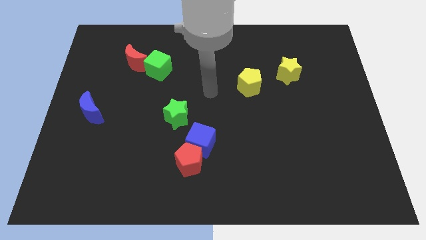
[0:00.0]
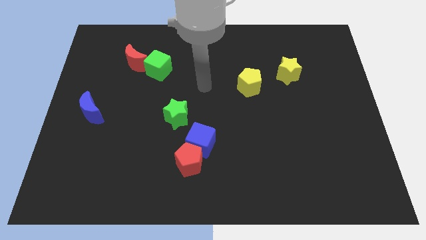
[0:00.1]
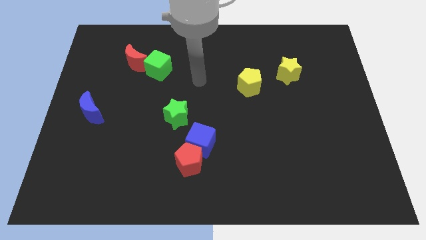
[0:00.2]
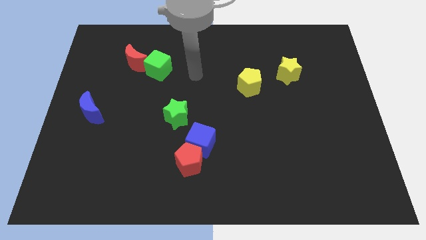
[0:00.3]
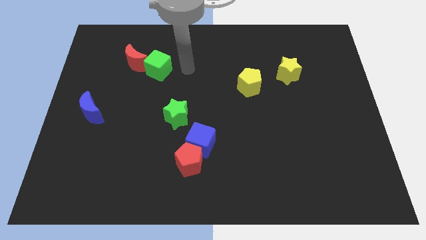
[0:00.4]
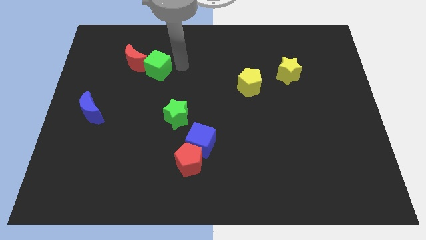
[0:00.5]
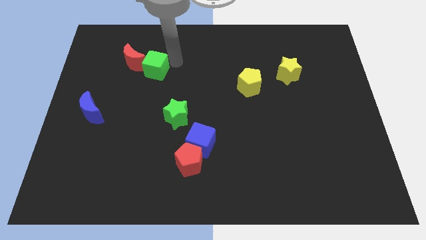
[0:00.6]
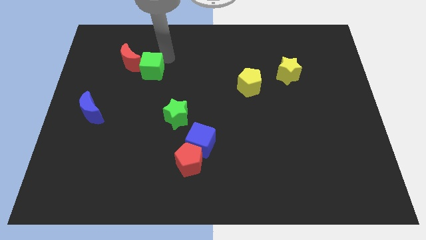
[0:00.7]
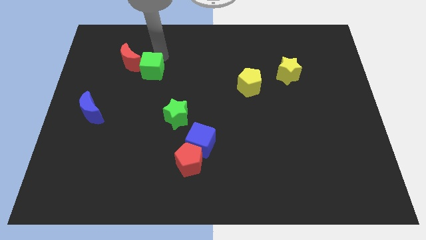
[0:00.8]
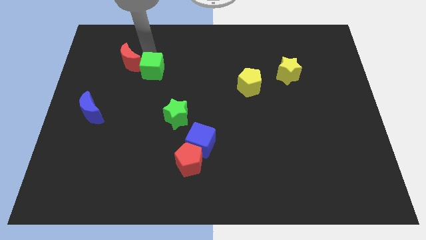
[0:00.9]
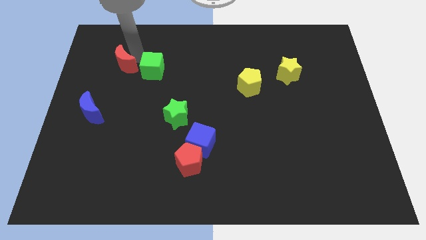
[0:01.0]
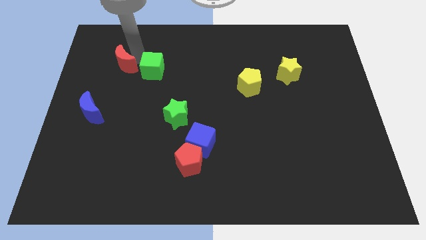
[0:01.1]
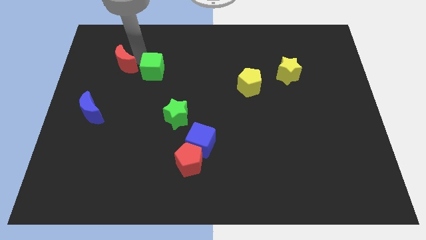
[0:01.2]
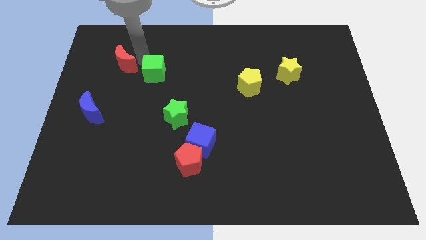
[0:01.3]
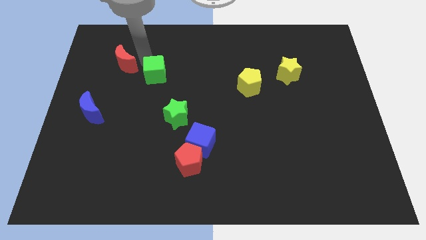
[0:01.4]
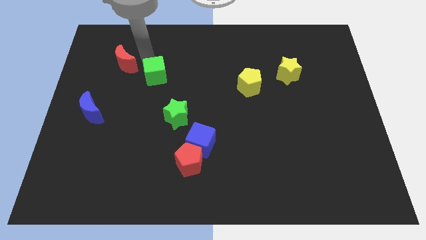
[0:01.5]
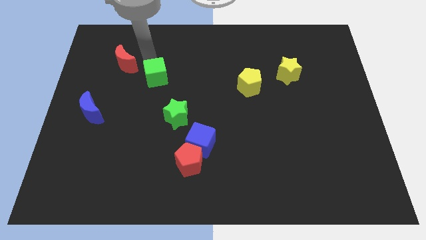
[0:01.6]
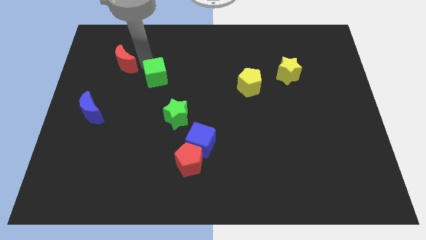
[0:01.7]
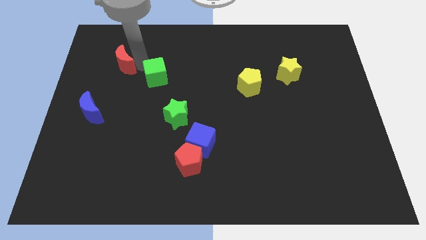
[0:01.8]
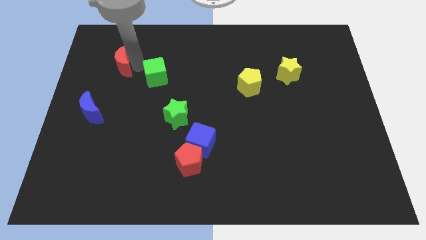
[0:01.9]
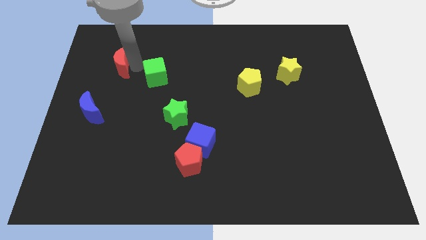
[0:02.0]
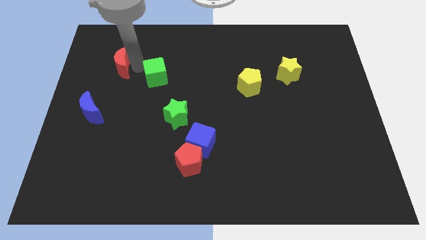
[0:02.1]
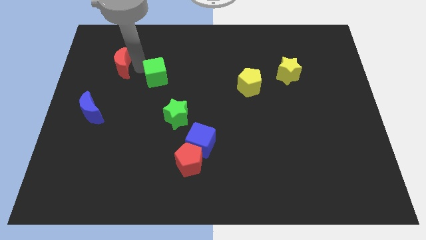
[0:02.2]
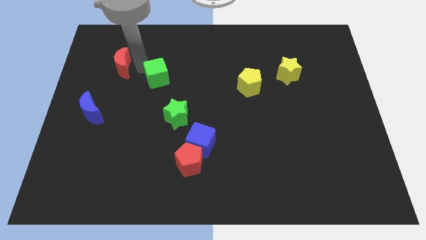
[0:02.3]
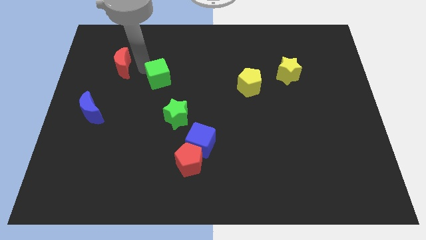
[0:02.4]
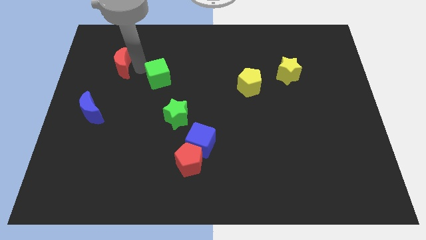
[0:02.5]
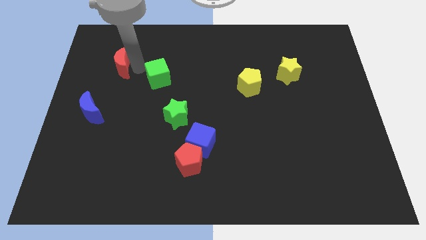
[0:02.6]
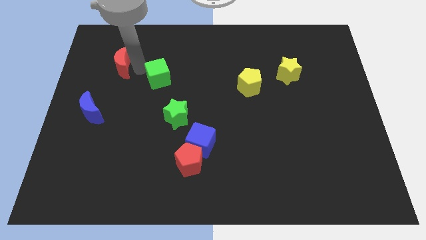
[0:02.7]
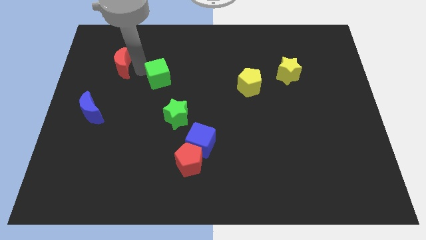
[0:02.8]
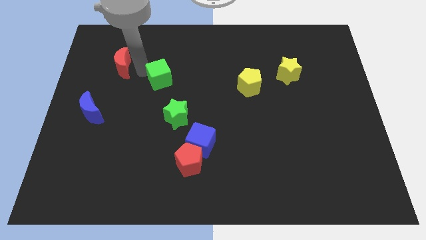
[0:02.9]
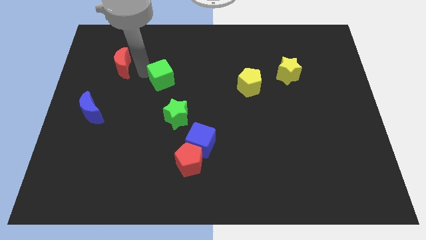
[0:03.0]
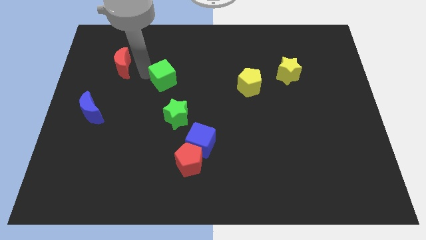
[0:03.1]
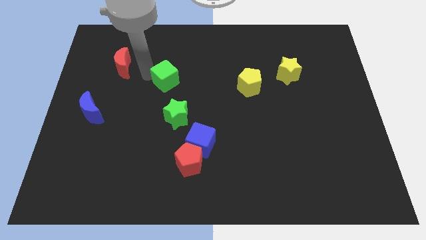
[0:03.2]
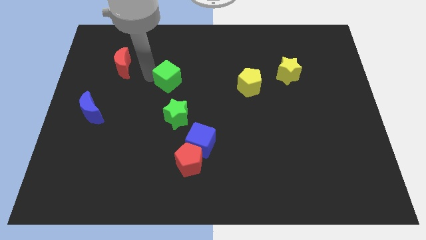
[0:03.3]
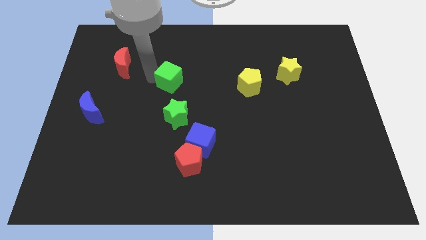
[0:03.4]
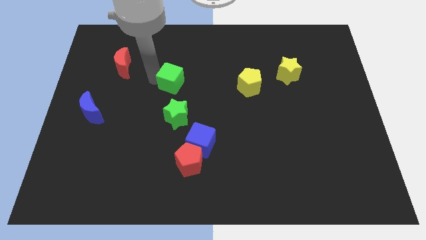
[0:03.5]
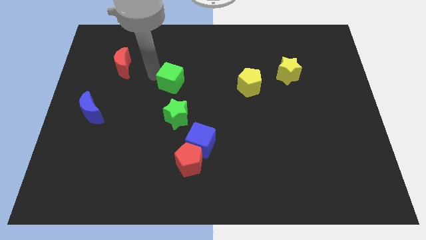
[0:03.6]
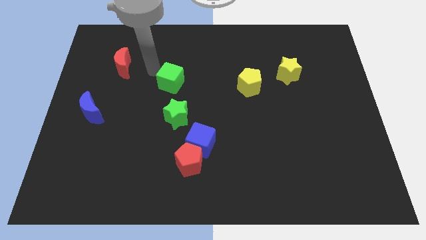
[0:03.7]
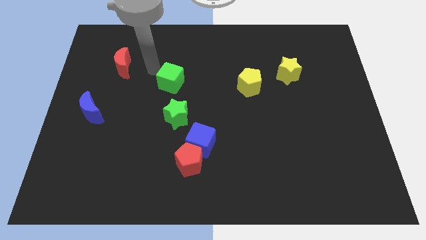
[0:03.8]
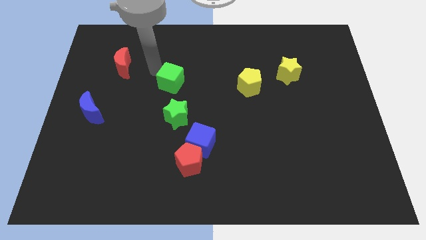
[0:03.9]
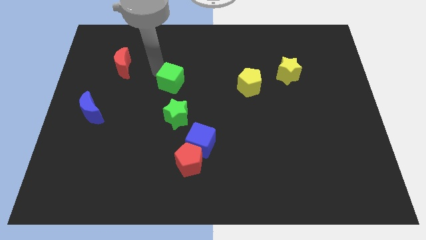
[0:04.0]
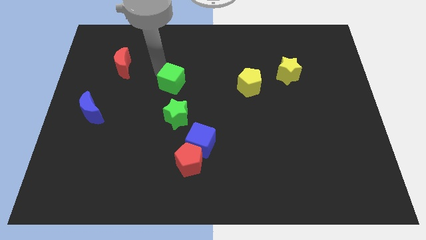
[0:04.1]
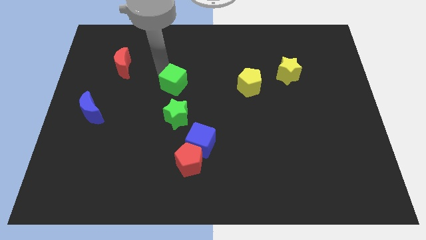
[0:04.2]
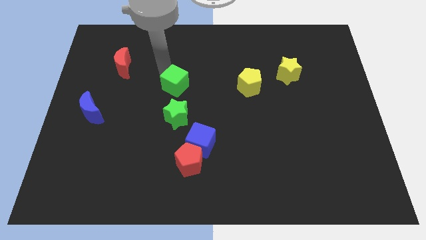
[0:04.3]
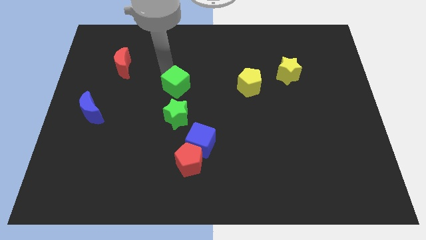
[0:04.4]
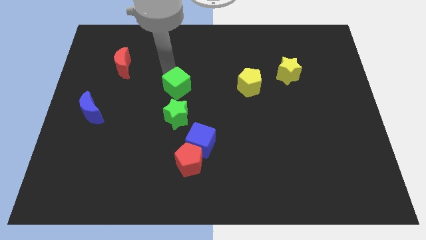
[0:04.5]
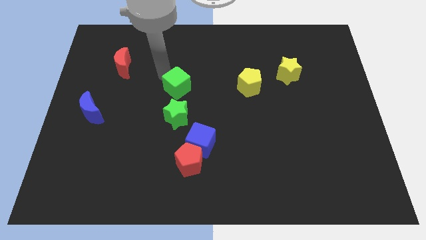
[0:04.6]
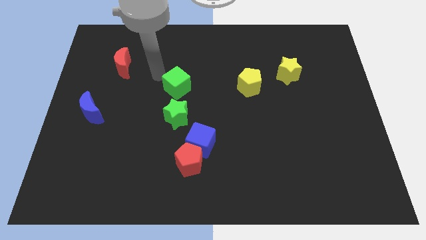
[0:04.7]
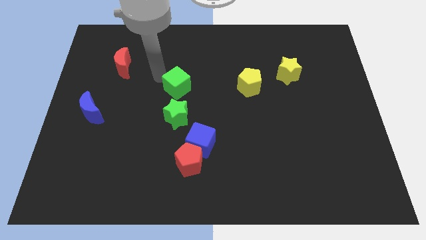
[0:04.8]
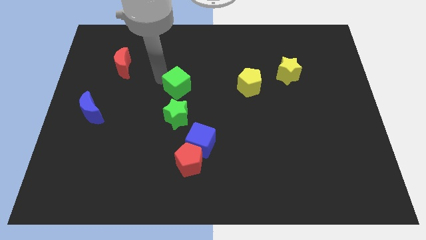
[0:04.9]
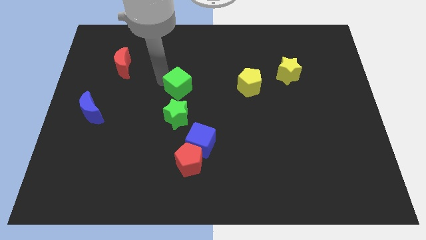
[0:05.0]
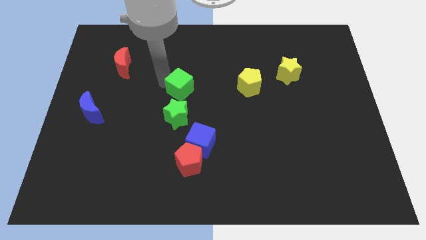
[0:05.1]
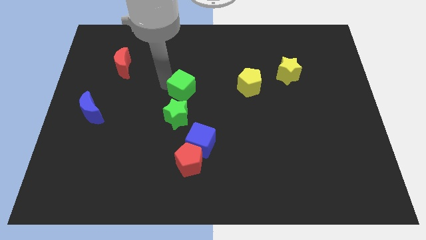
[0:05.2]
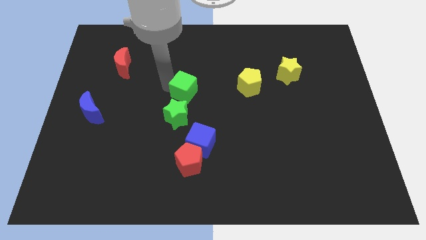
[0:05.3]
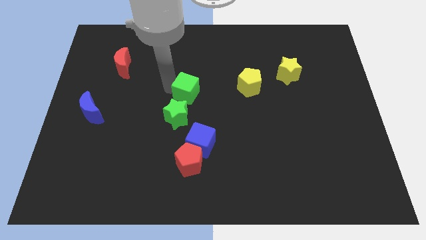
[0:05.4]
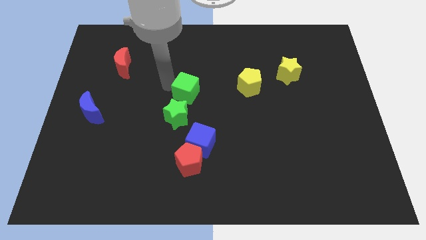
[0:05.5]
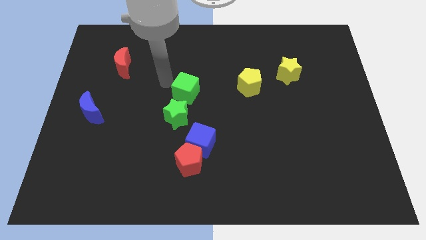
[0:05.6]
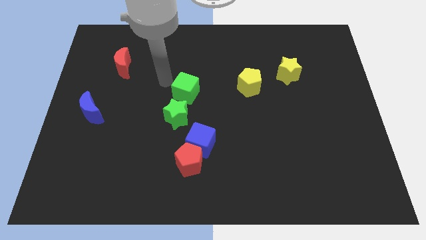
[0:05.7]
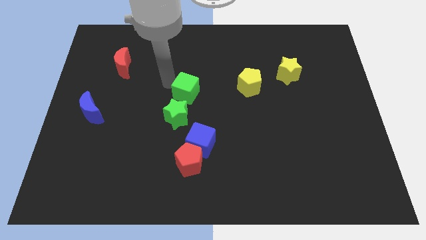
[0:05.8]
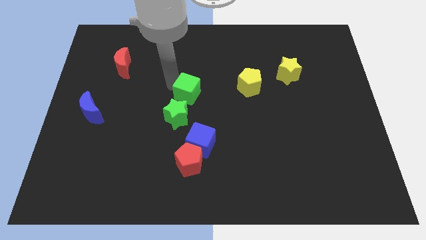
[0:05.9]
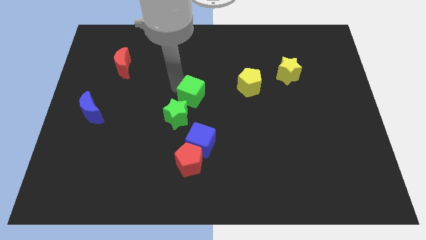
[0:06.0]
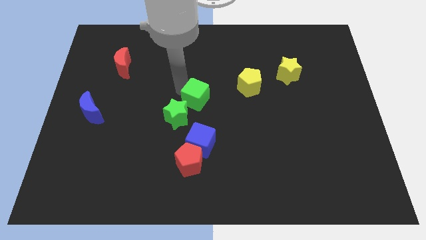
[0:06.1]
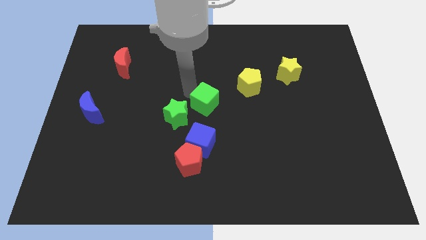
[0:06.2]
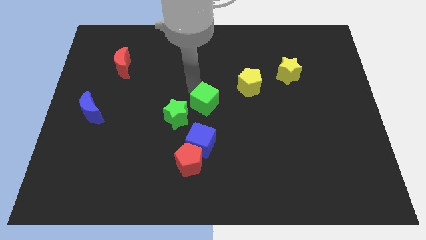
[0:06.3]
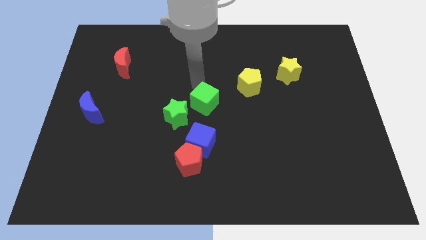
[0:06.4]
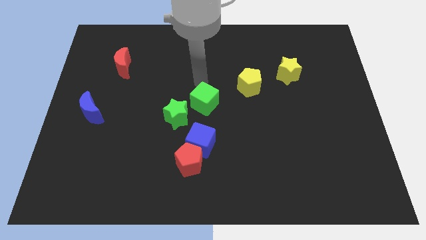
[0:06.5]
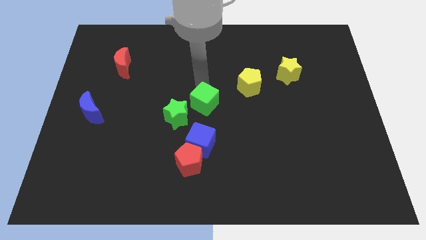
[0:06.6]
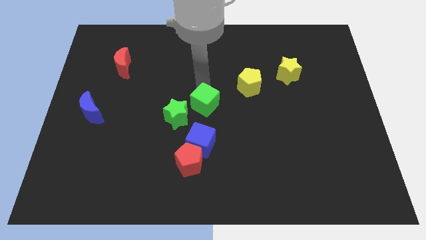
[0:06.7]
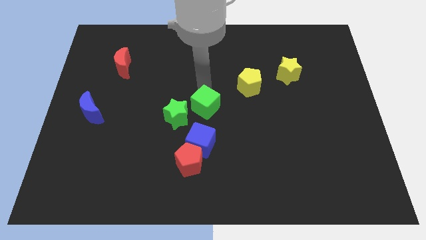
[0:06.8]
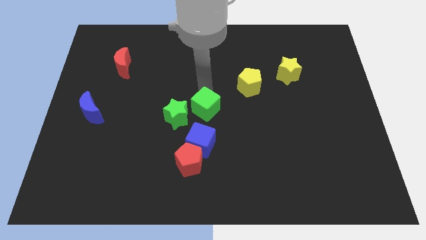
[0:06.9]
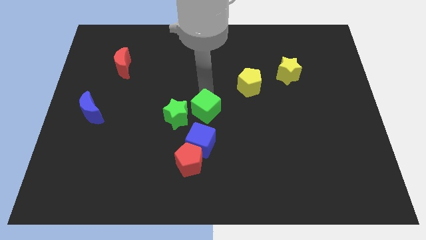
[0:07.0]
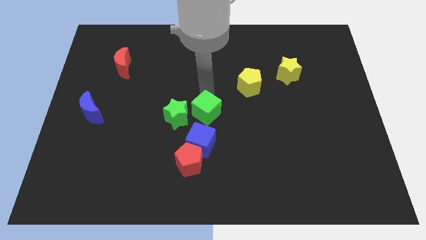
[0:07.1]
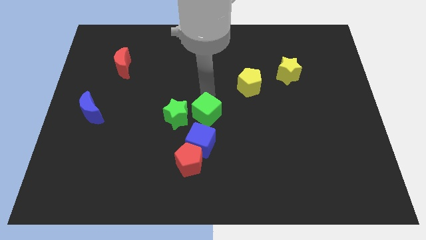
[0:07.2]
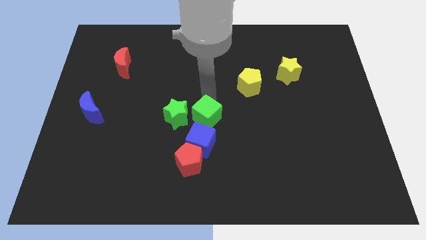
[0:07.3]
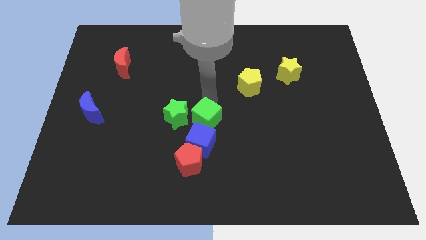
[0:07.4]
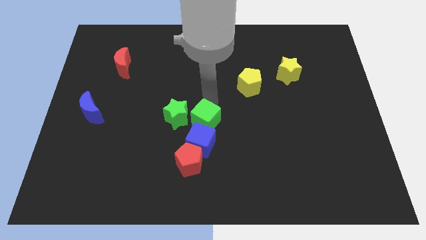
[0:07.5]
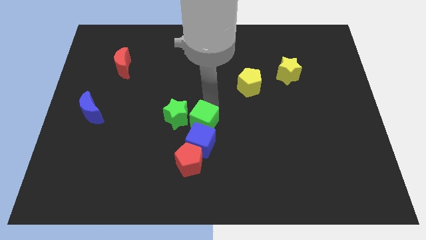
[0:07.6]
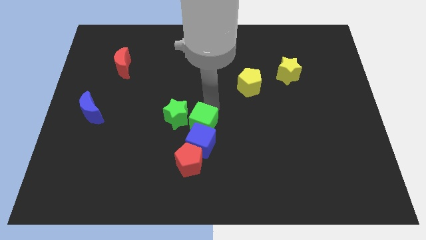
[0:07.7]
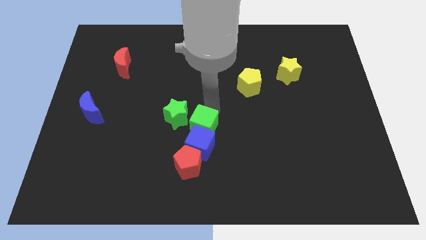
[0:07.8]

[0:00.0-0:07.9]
push the green cube diagonally up and to the right of the red pentagon

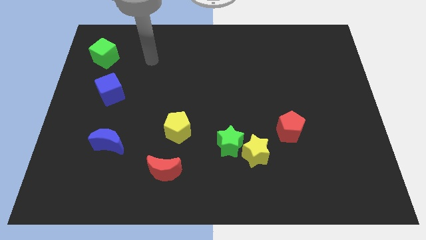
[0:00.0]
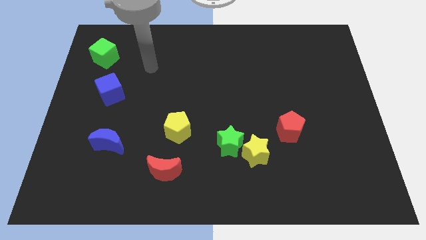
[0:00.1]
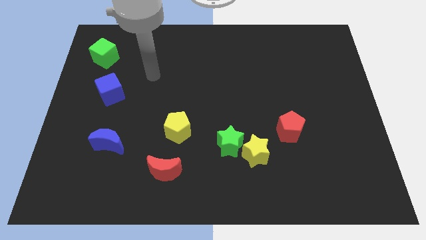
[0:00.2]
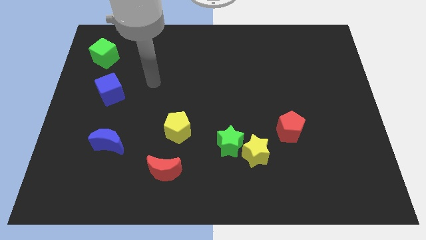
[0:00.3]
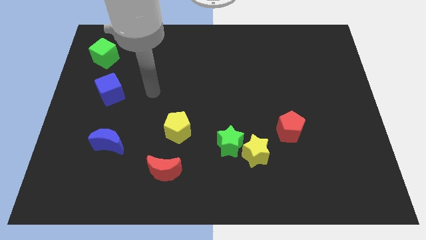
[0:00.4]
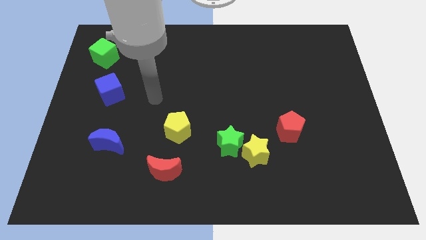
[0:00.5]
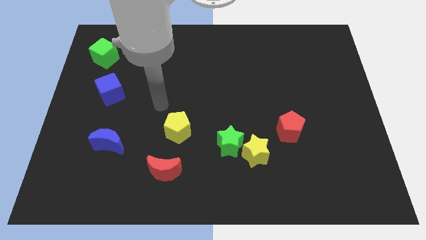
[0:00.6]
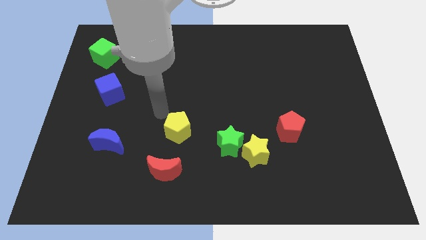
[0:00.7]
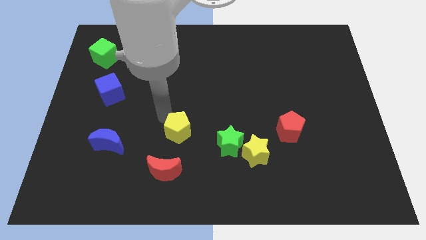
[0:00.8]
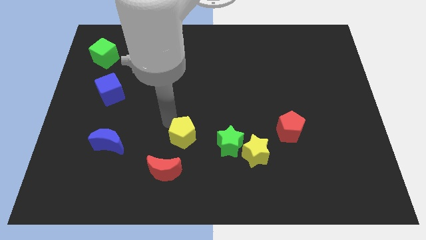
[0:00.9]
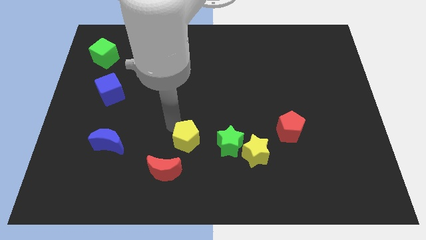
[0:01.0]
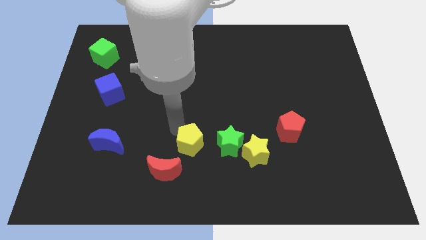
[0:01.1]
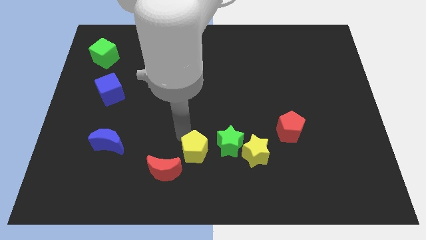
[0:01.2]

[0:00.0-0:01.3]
push the yellow pentagon just right of the red moon
